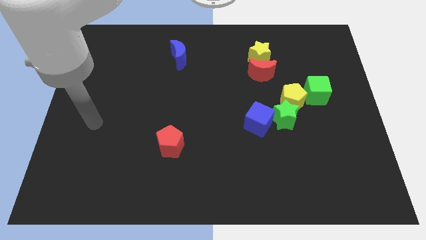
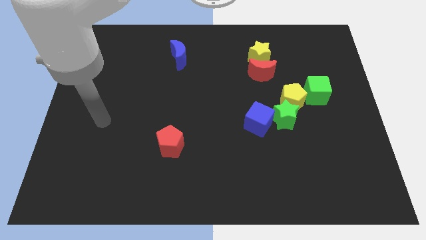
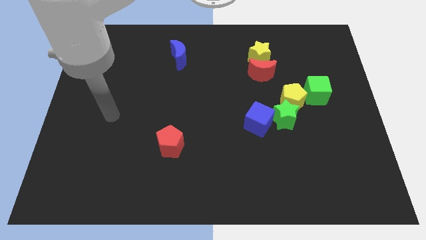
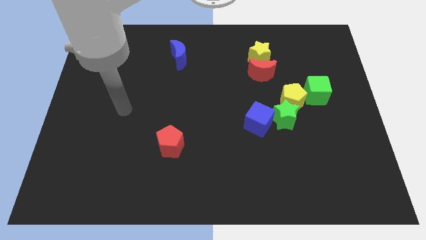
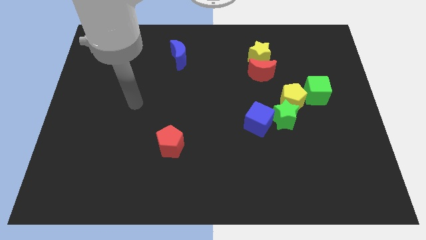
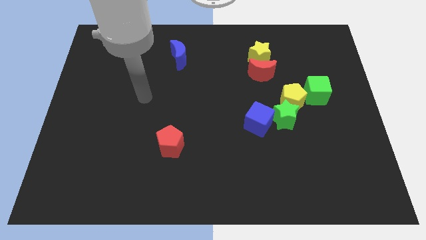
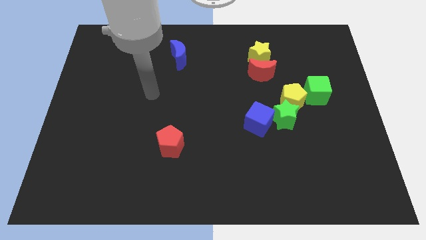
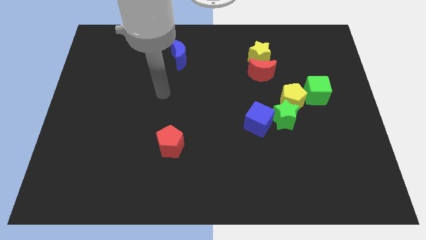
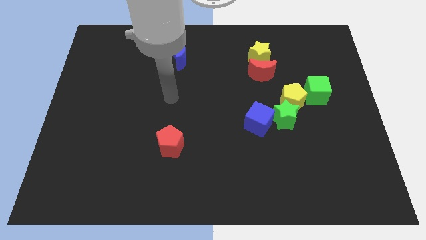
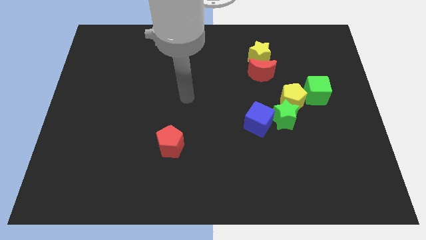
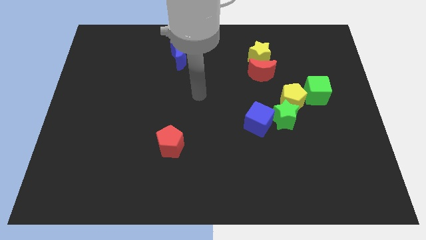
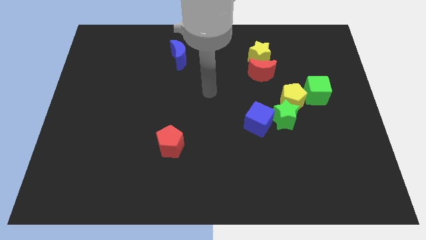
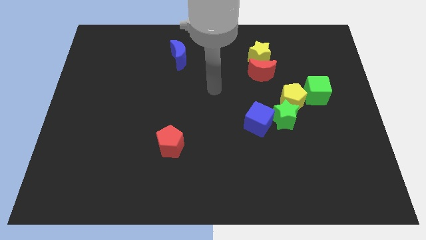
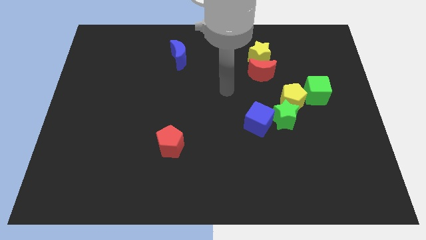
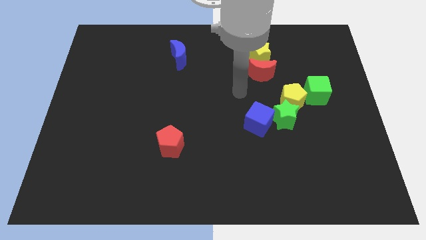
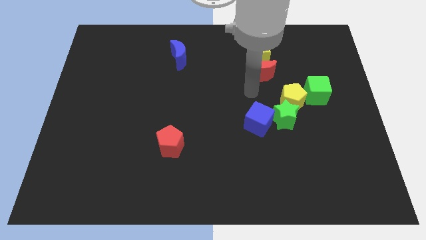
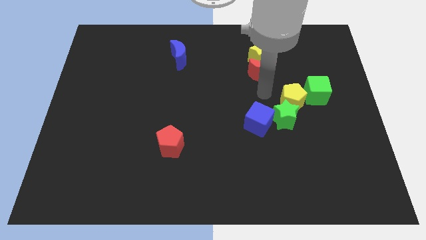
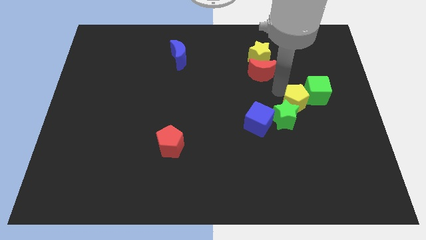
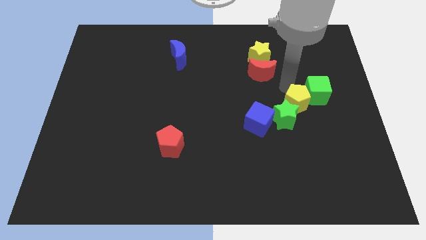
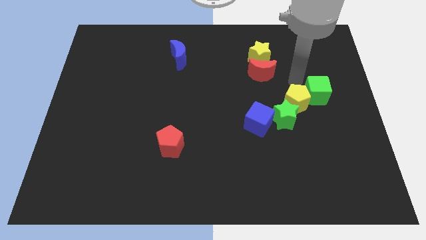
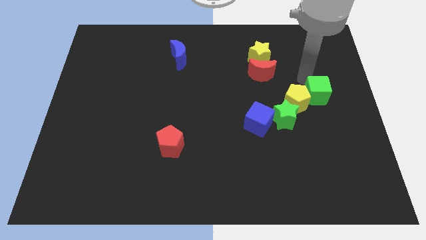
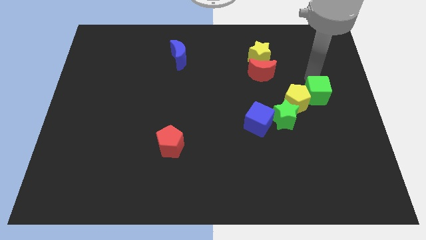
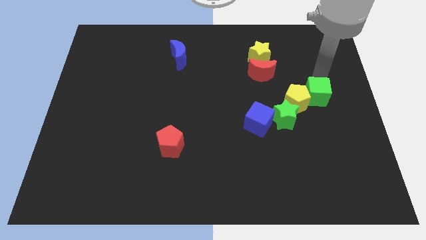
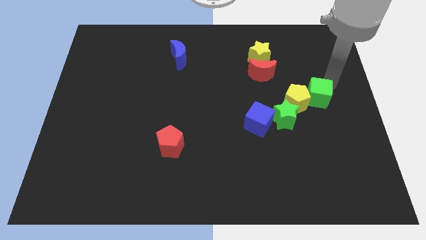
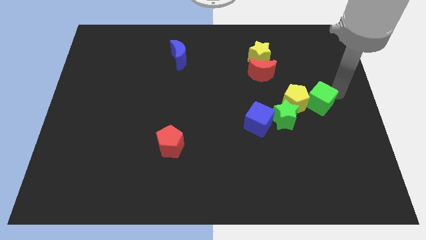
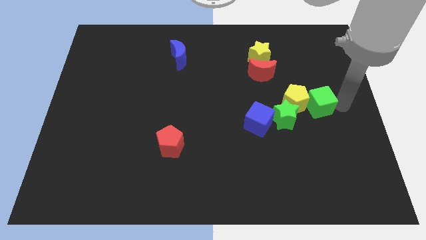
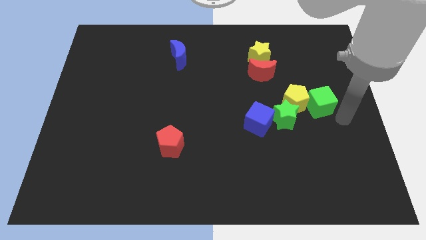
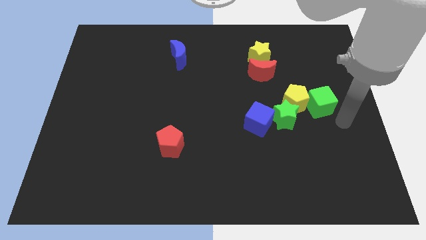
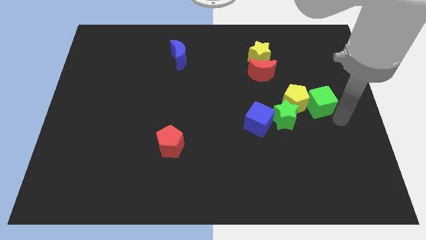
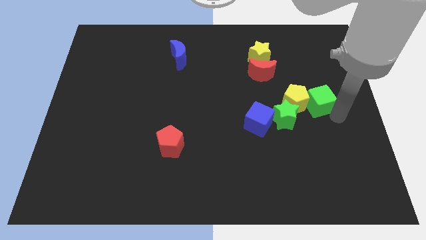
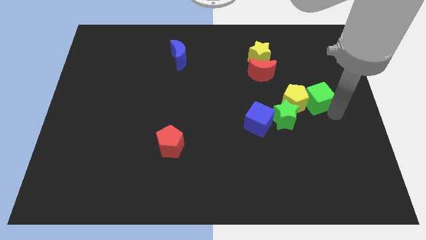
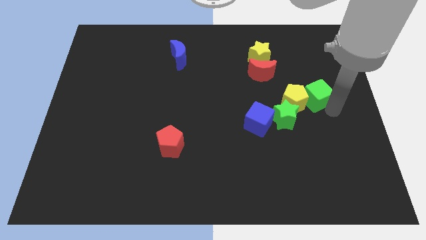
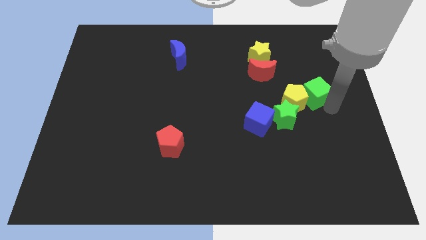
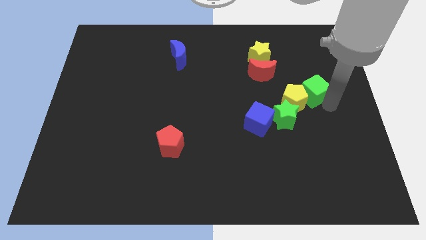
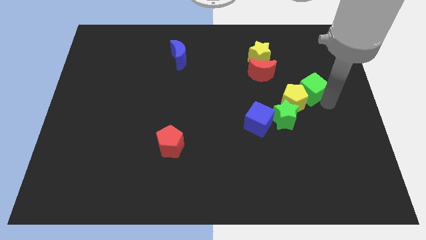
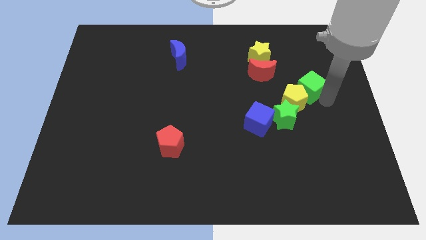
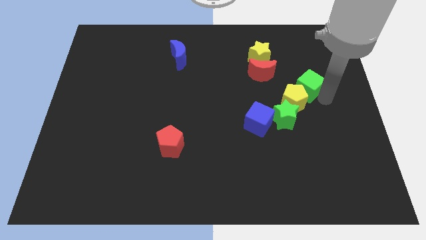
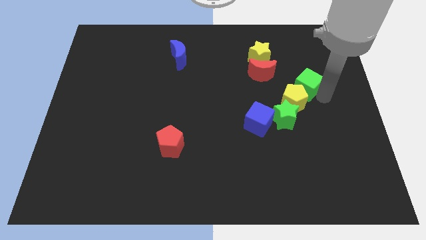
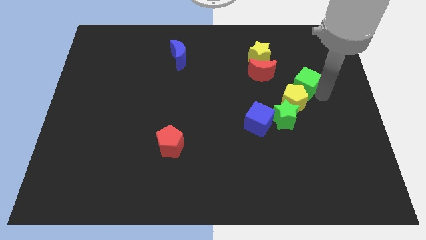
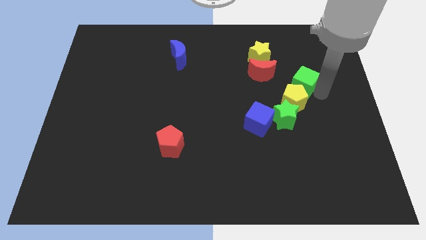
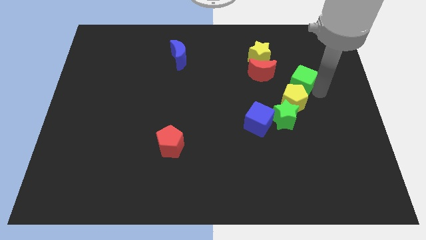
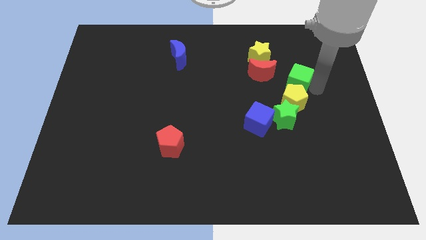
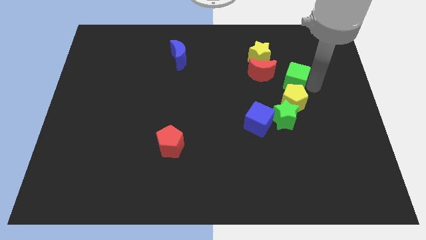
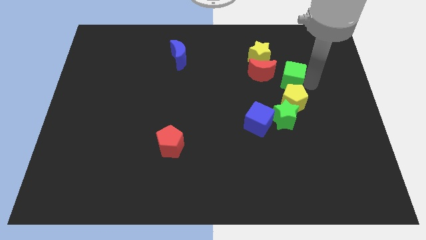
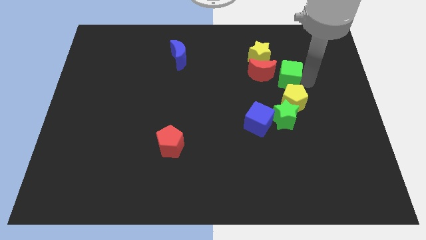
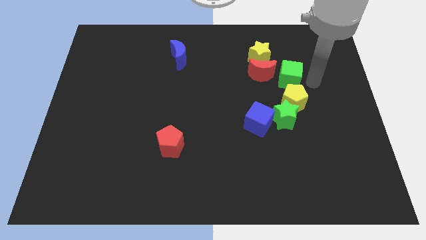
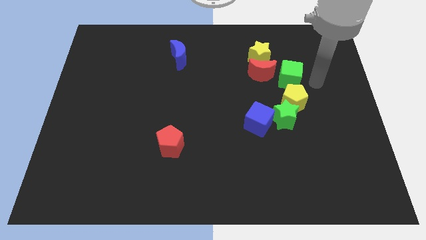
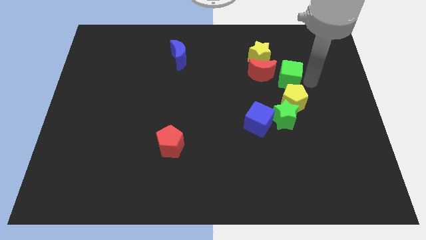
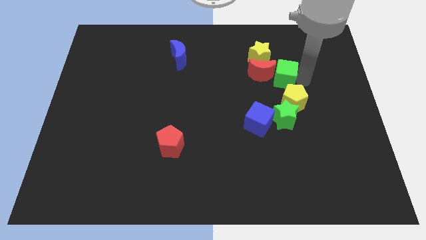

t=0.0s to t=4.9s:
slide the green cube next to the red moon

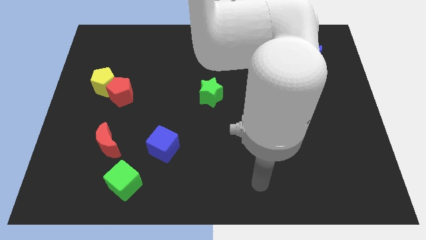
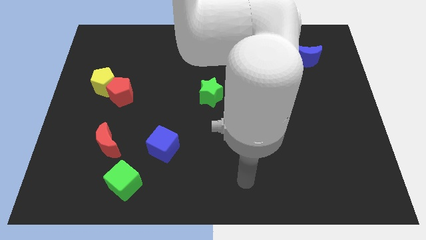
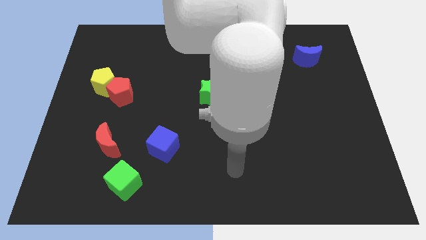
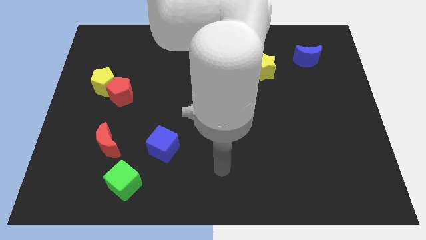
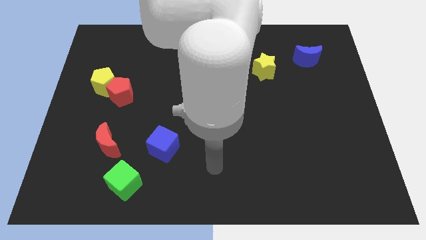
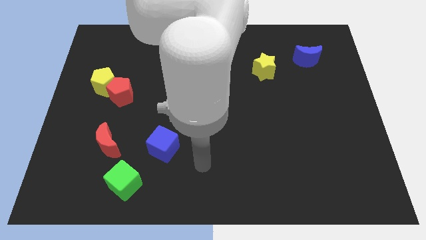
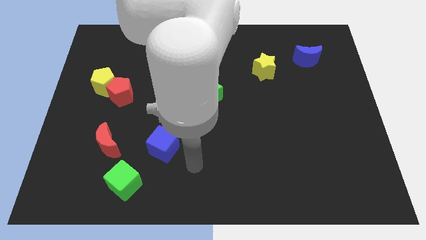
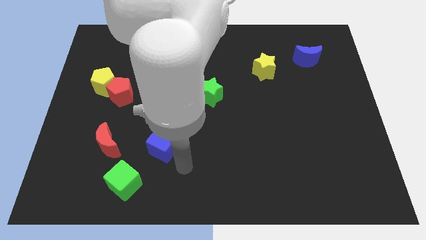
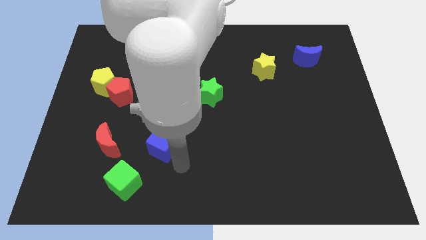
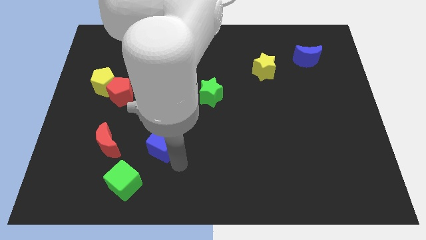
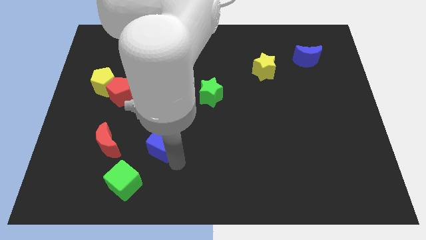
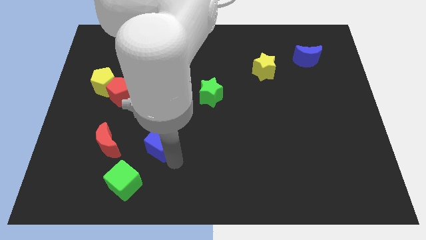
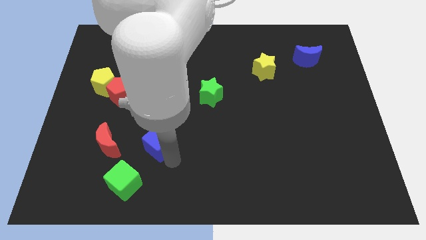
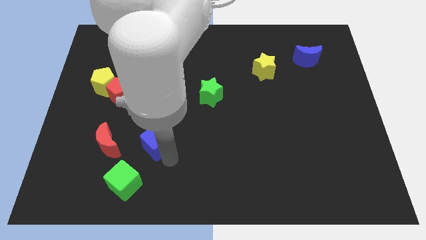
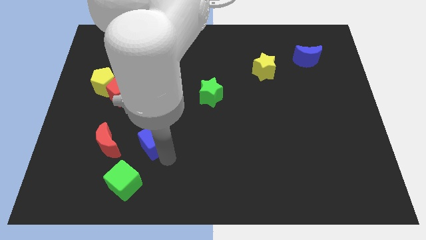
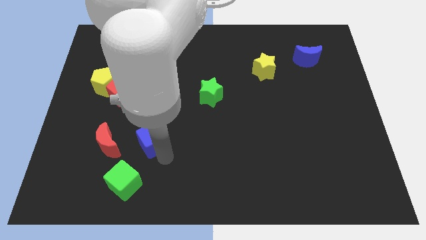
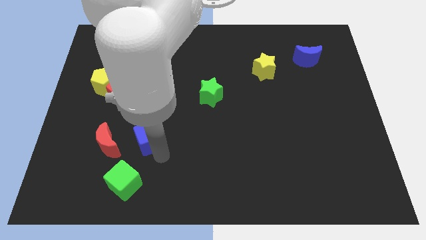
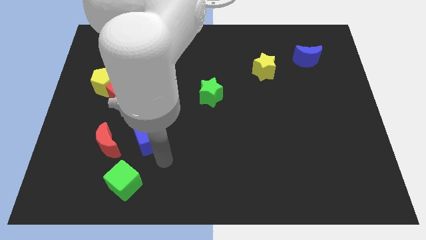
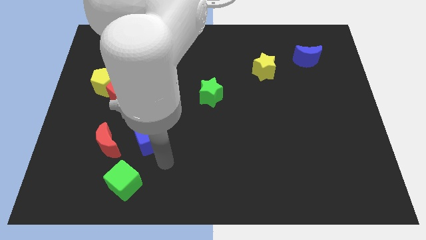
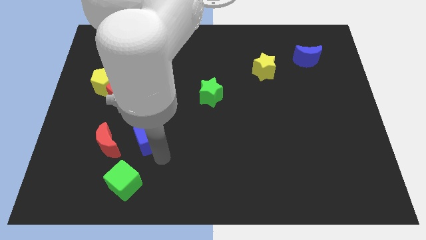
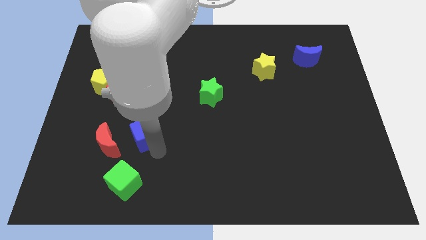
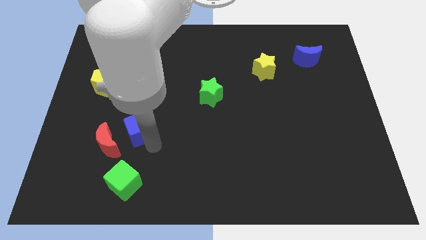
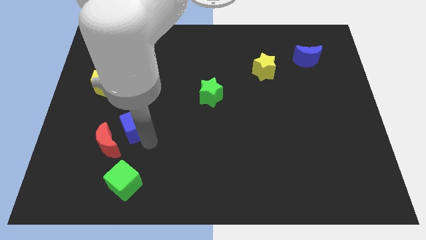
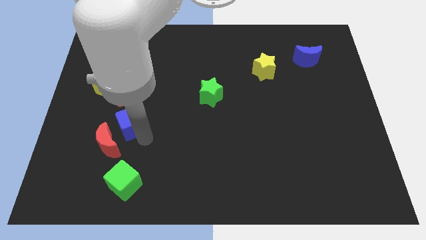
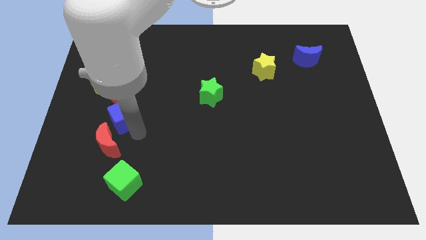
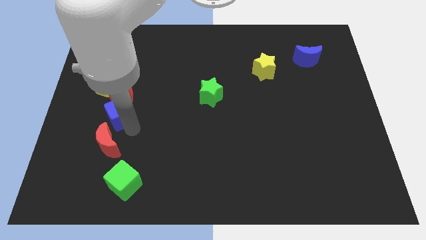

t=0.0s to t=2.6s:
push the blue cube towards the red pentagon
